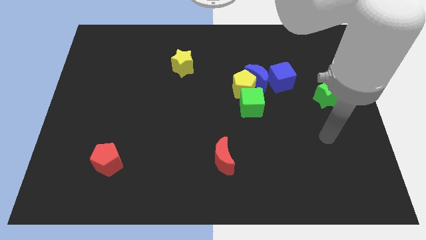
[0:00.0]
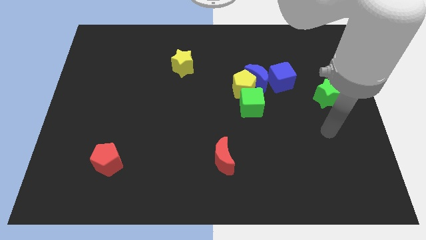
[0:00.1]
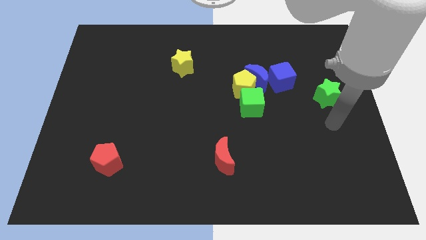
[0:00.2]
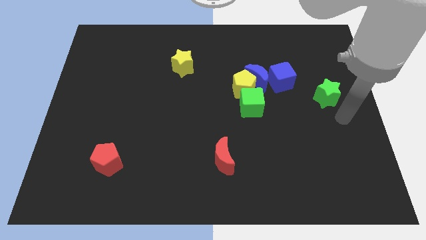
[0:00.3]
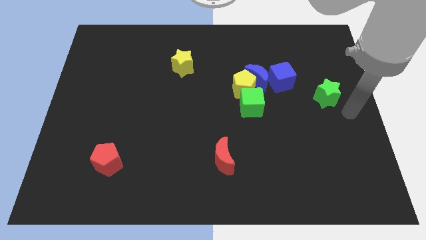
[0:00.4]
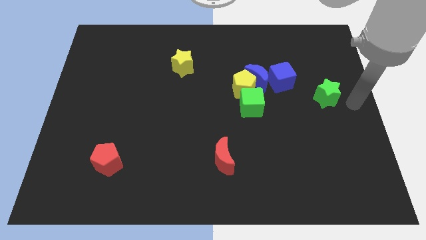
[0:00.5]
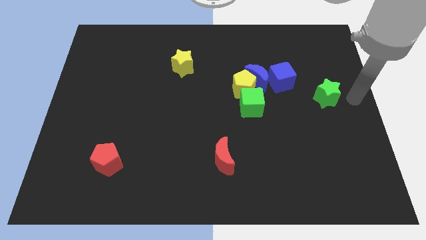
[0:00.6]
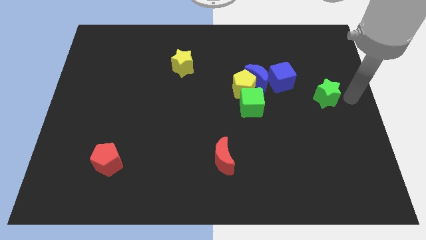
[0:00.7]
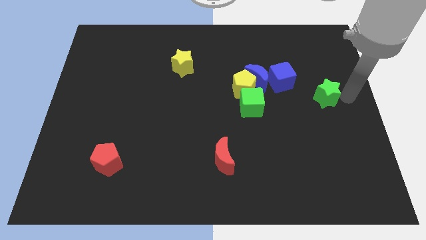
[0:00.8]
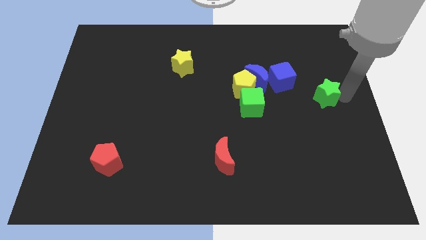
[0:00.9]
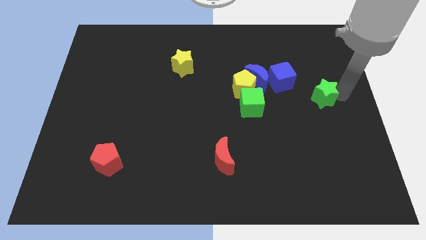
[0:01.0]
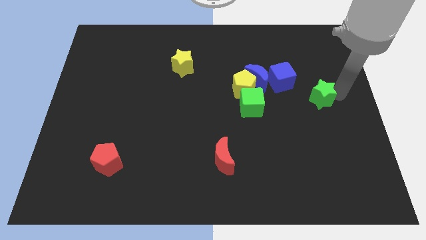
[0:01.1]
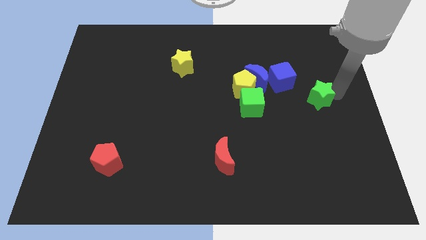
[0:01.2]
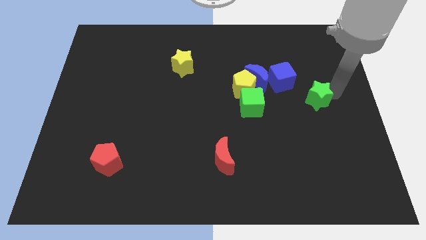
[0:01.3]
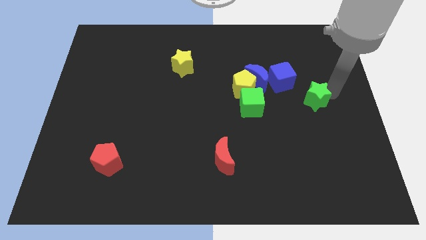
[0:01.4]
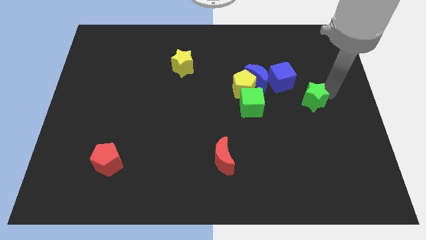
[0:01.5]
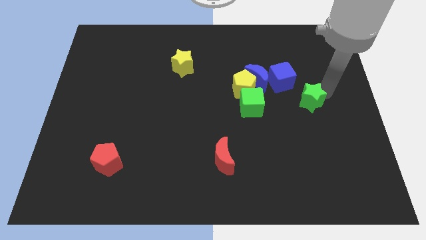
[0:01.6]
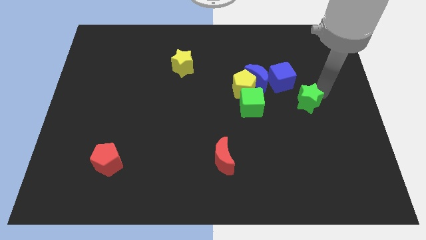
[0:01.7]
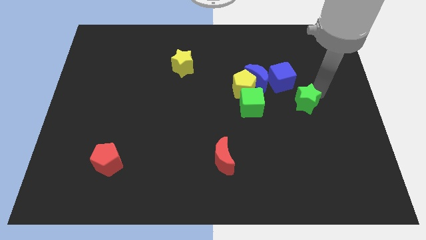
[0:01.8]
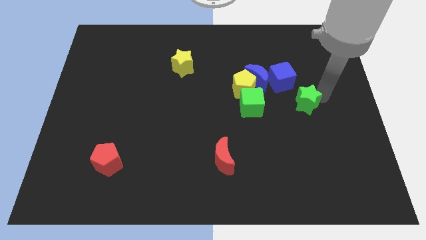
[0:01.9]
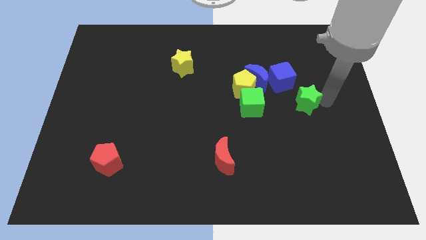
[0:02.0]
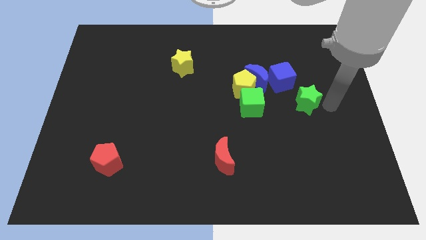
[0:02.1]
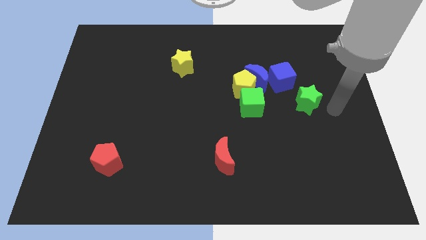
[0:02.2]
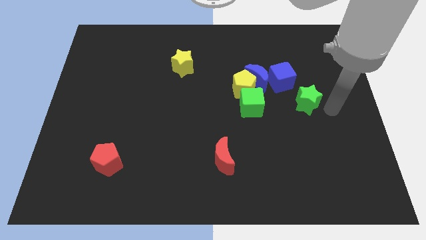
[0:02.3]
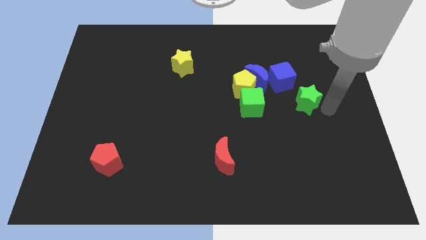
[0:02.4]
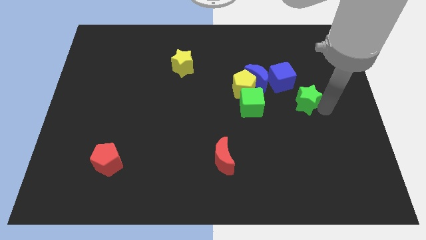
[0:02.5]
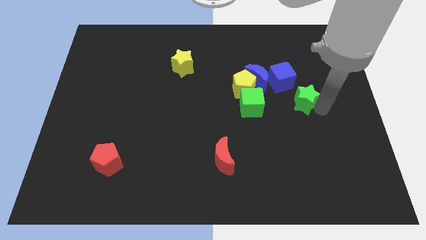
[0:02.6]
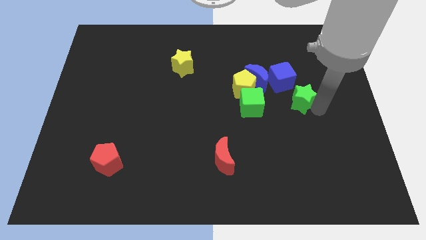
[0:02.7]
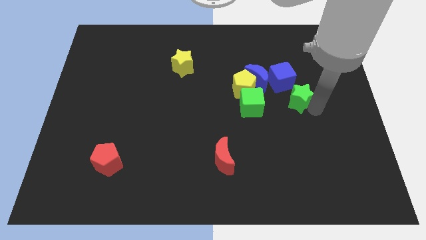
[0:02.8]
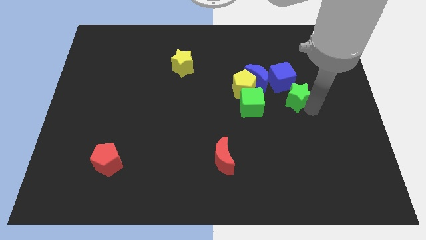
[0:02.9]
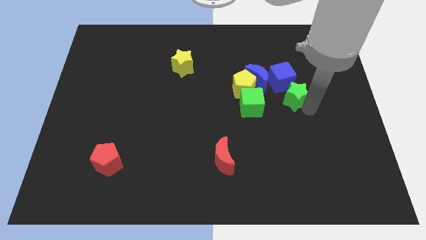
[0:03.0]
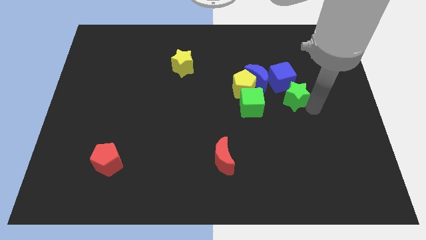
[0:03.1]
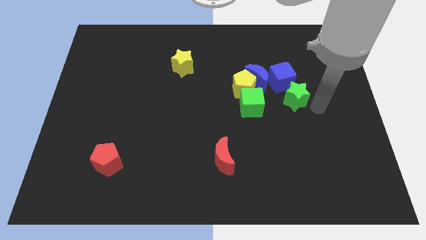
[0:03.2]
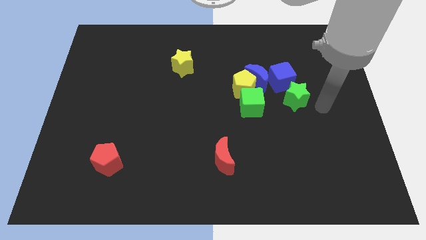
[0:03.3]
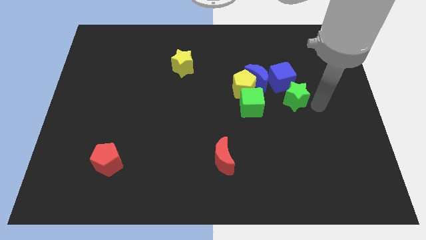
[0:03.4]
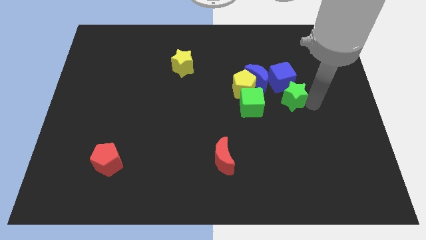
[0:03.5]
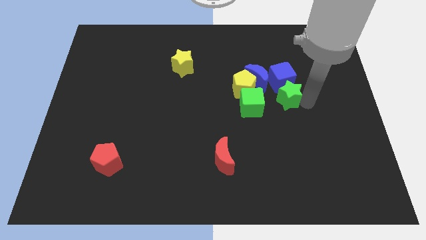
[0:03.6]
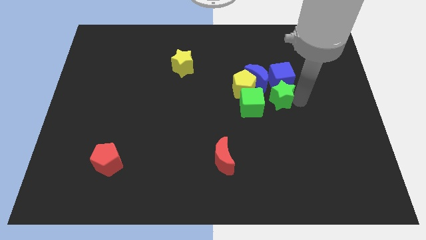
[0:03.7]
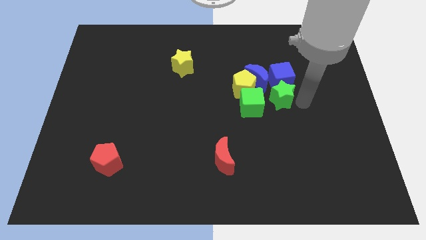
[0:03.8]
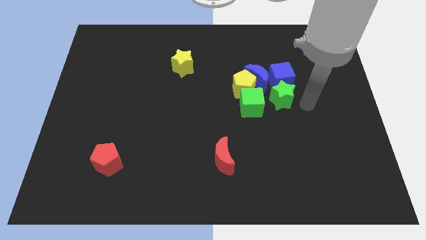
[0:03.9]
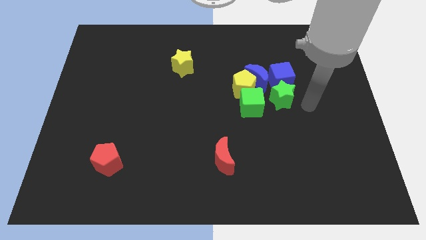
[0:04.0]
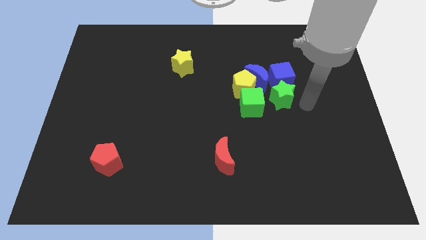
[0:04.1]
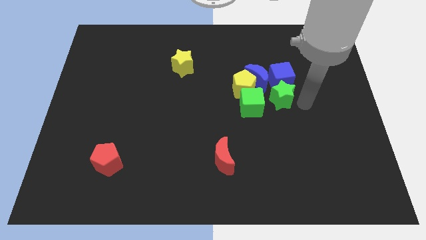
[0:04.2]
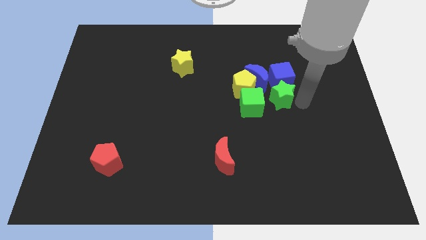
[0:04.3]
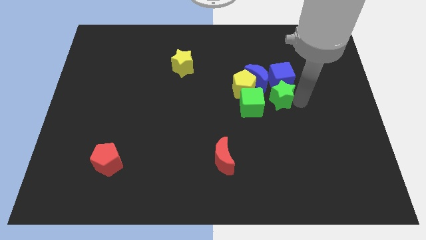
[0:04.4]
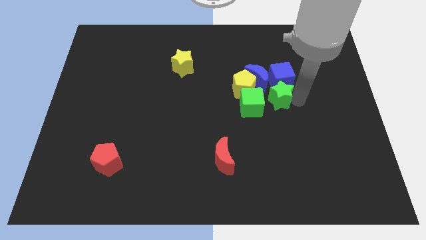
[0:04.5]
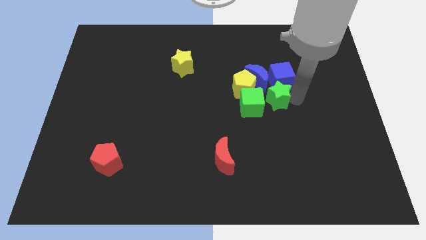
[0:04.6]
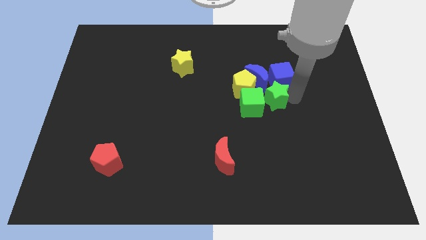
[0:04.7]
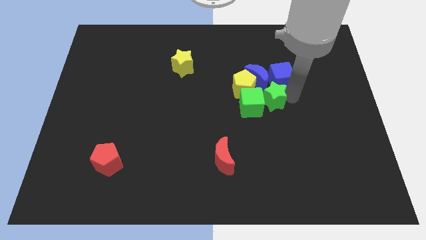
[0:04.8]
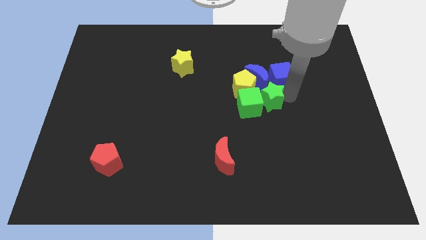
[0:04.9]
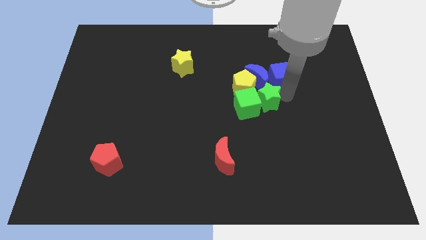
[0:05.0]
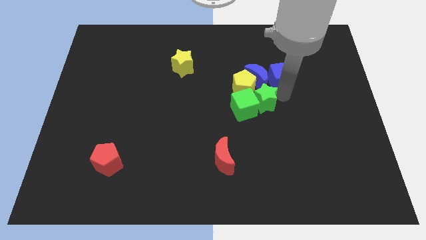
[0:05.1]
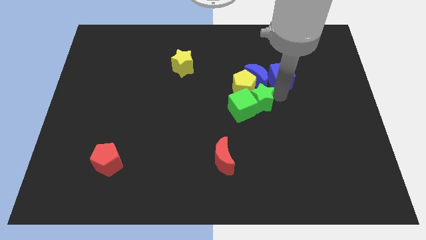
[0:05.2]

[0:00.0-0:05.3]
slide the green star next to the yellow pentagon

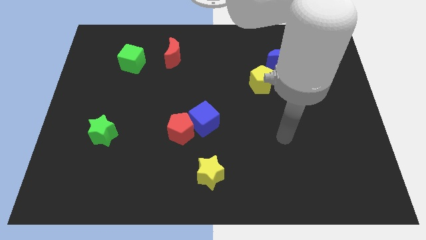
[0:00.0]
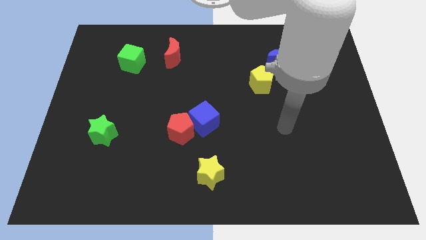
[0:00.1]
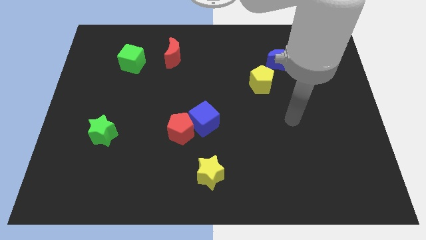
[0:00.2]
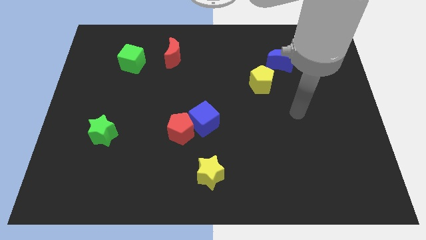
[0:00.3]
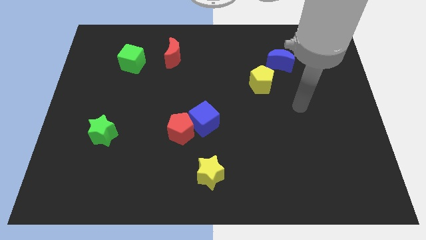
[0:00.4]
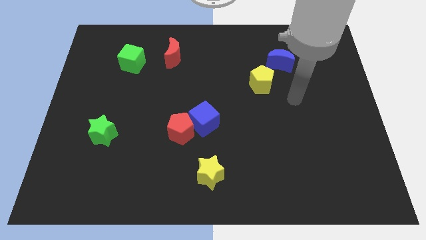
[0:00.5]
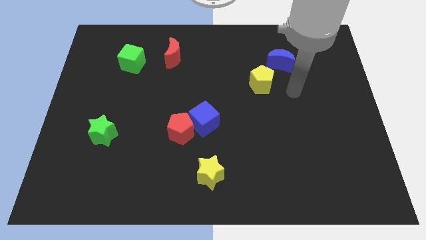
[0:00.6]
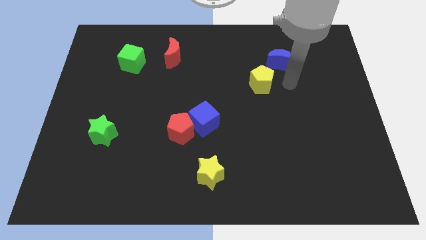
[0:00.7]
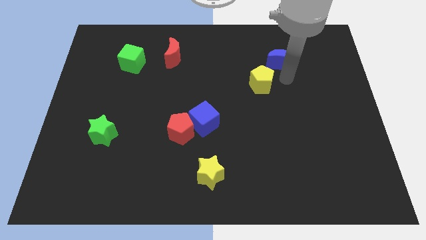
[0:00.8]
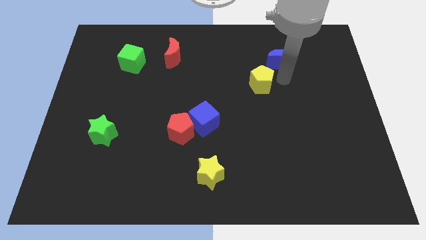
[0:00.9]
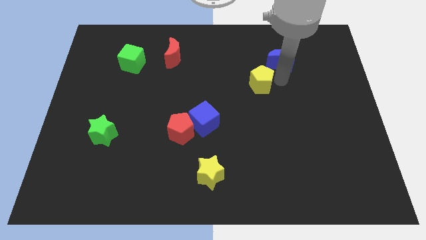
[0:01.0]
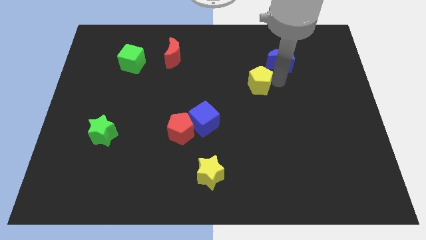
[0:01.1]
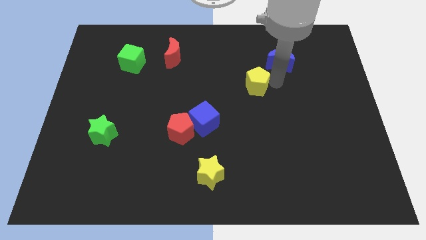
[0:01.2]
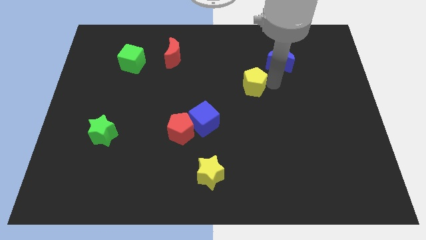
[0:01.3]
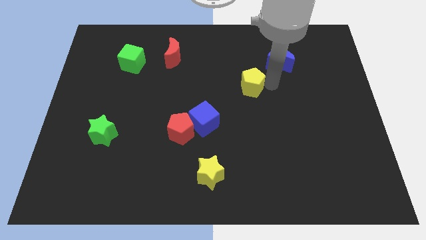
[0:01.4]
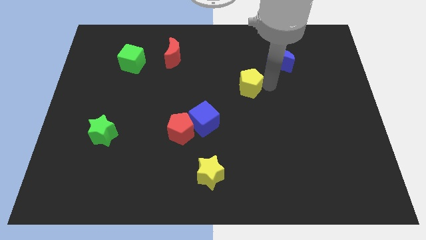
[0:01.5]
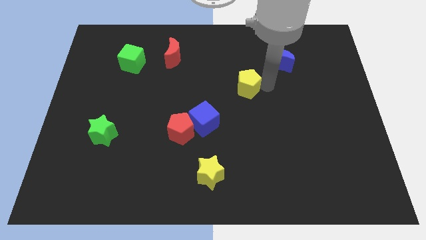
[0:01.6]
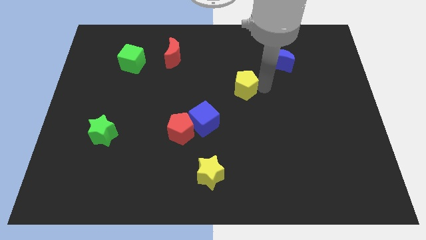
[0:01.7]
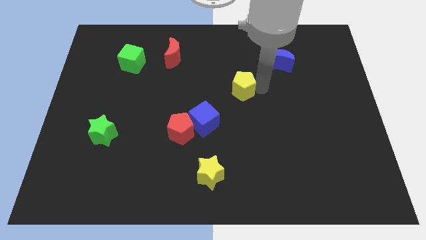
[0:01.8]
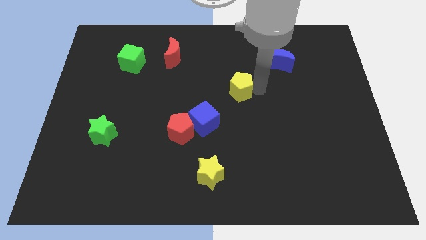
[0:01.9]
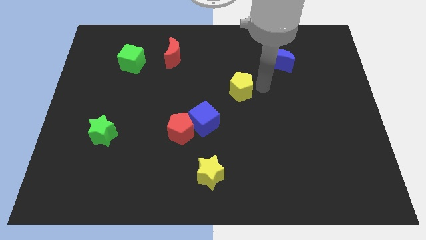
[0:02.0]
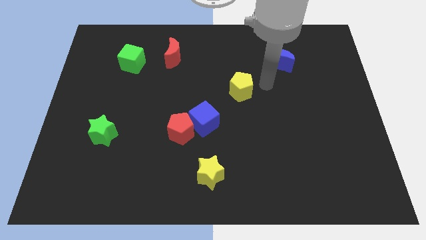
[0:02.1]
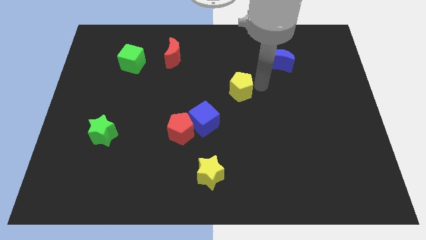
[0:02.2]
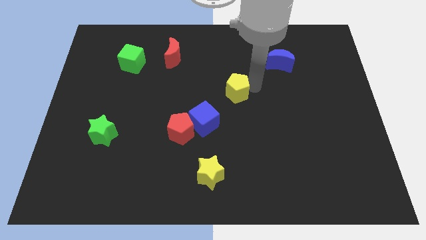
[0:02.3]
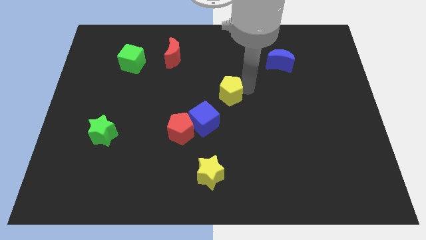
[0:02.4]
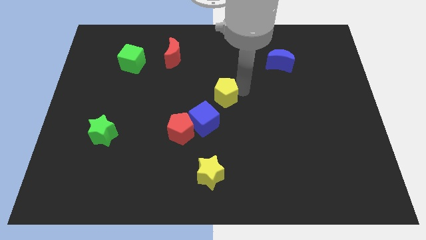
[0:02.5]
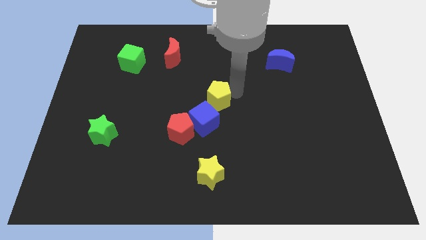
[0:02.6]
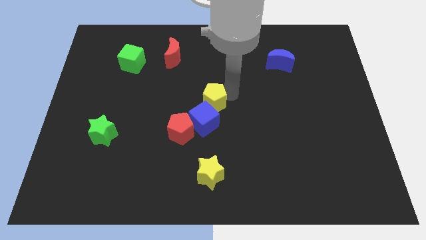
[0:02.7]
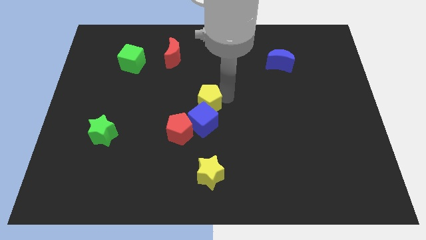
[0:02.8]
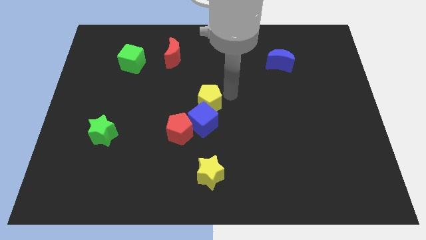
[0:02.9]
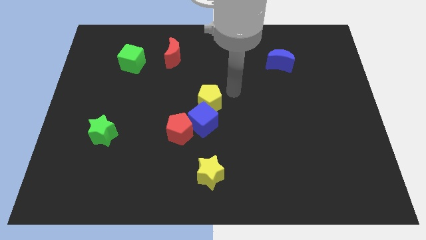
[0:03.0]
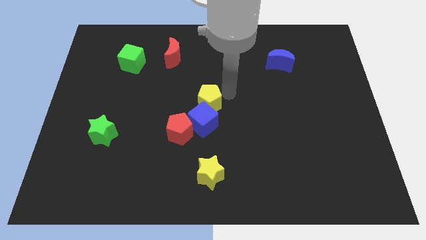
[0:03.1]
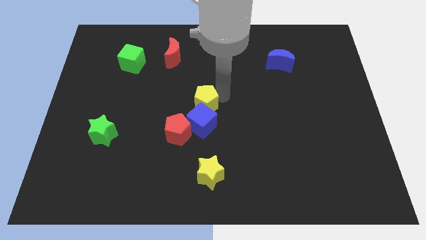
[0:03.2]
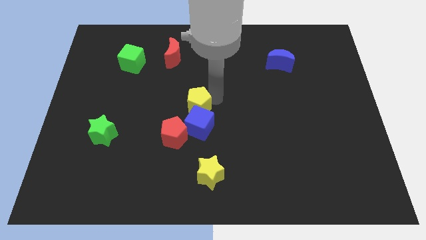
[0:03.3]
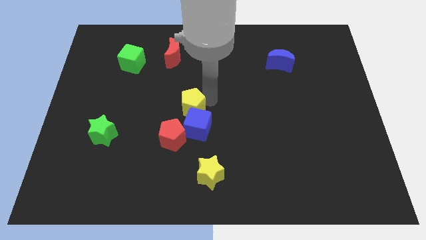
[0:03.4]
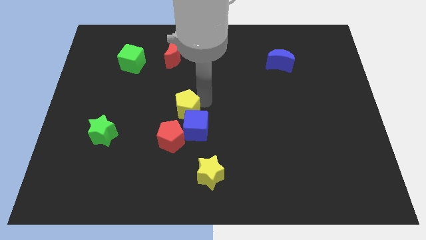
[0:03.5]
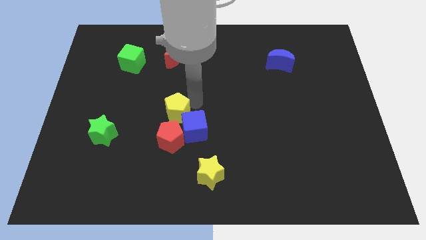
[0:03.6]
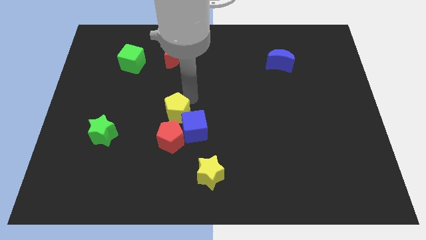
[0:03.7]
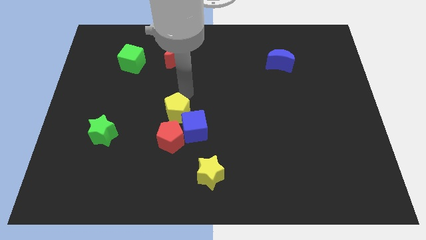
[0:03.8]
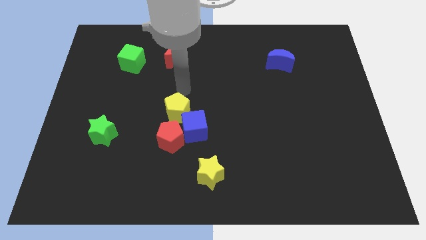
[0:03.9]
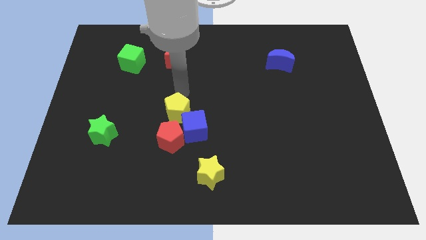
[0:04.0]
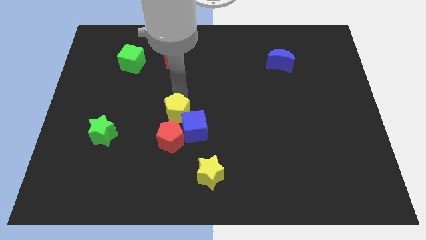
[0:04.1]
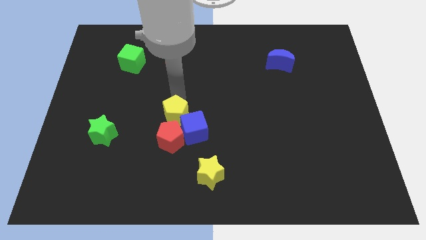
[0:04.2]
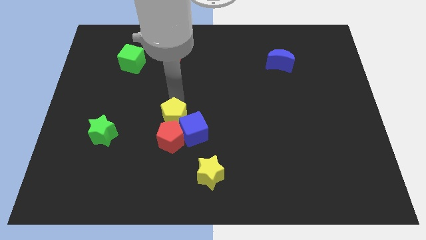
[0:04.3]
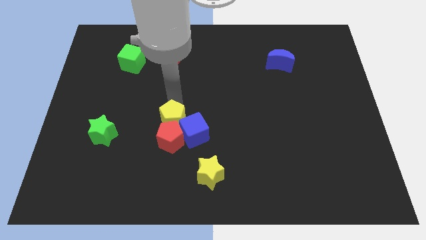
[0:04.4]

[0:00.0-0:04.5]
push the yellow pentagon to the red pentagon
